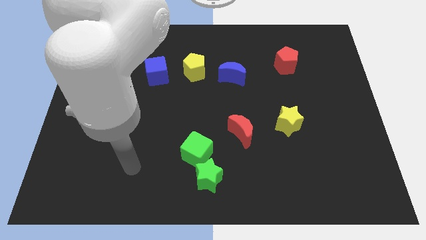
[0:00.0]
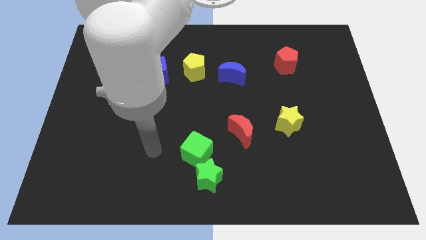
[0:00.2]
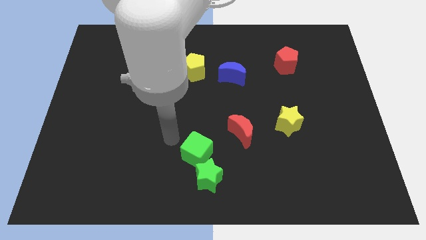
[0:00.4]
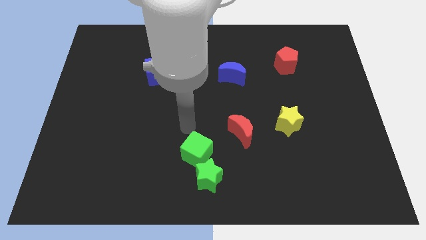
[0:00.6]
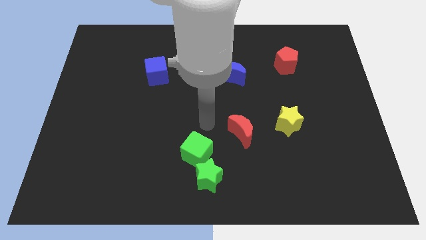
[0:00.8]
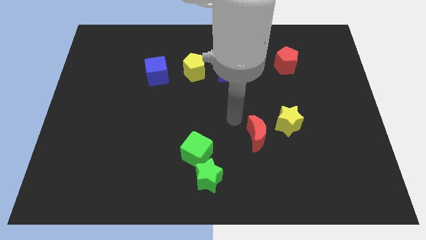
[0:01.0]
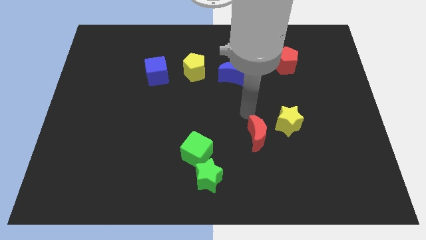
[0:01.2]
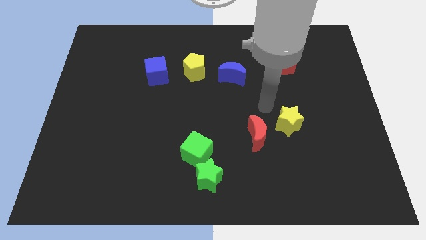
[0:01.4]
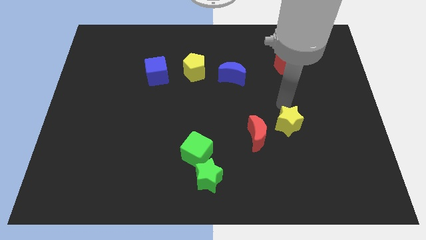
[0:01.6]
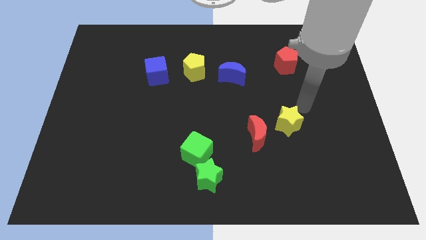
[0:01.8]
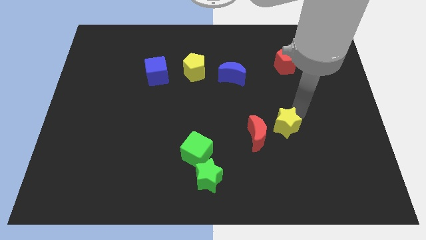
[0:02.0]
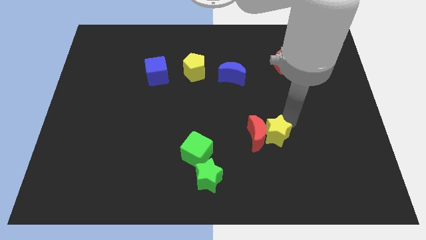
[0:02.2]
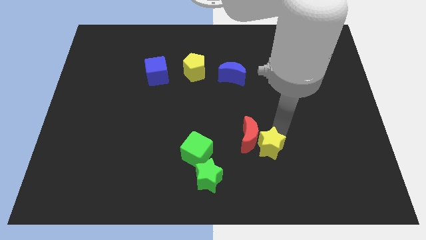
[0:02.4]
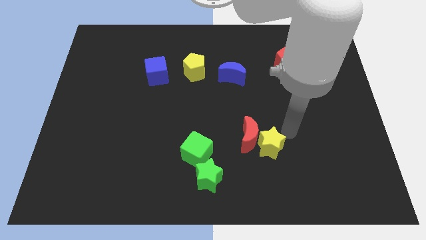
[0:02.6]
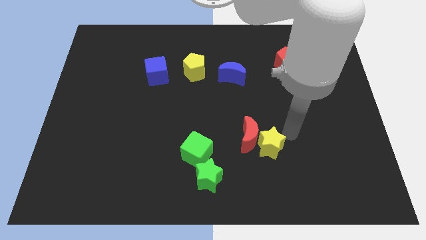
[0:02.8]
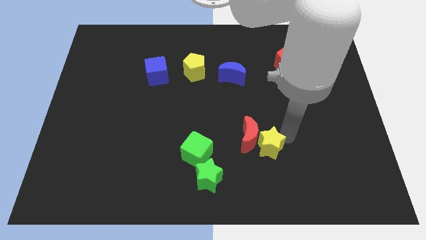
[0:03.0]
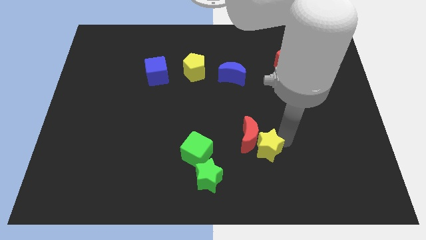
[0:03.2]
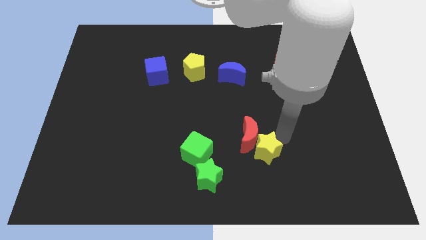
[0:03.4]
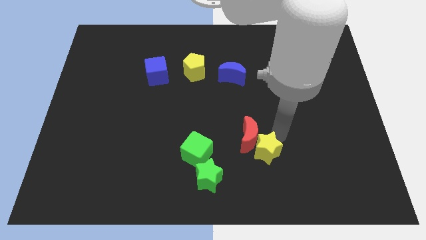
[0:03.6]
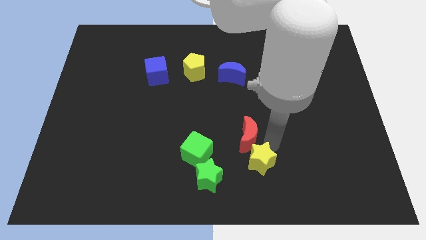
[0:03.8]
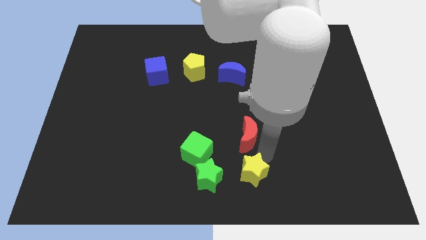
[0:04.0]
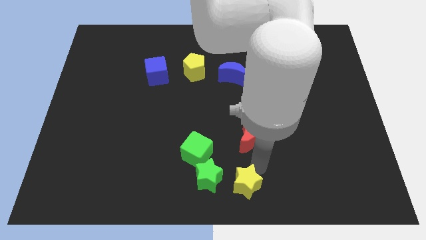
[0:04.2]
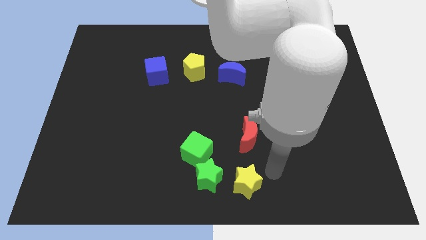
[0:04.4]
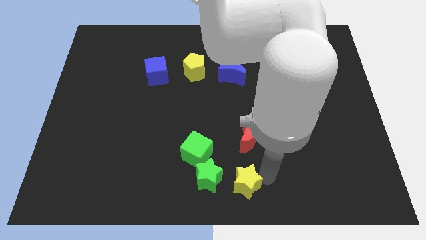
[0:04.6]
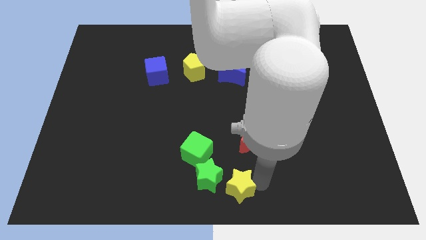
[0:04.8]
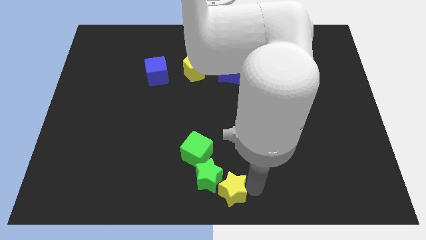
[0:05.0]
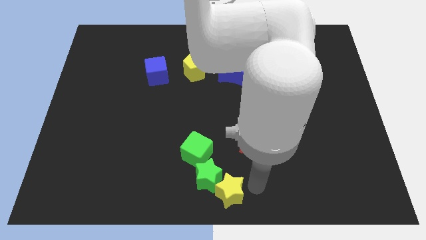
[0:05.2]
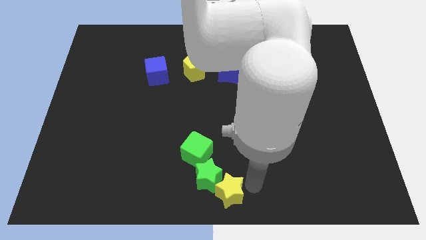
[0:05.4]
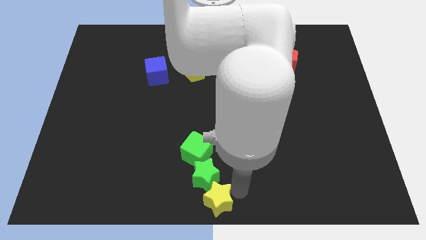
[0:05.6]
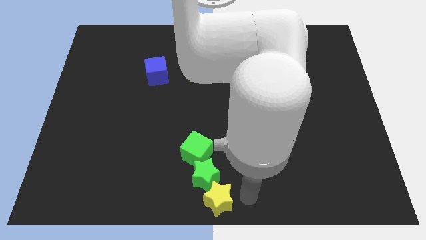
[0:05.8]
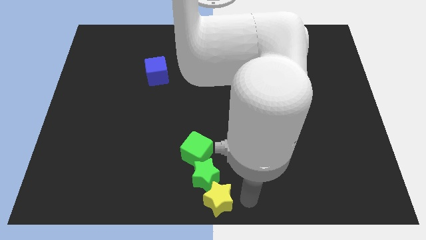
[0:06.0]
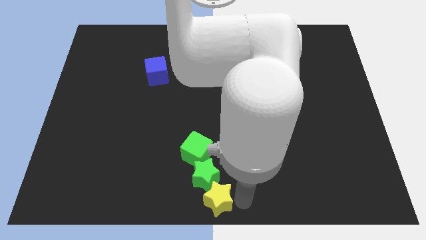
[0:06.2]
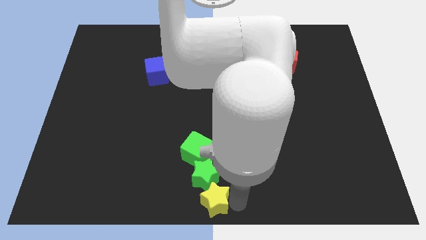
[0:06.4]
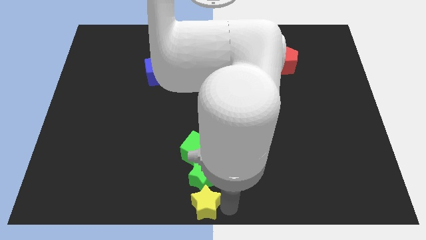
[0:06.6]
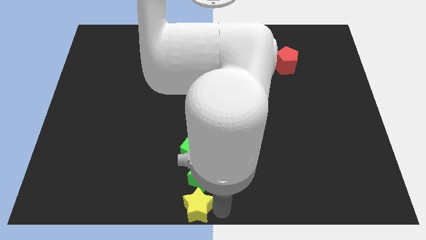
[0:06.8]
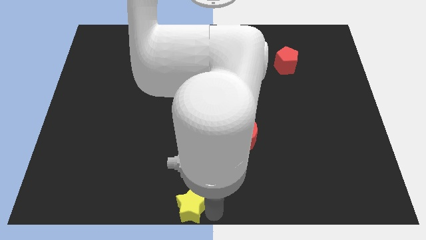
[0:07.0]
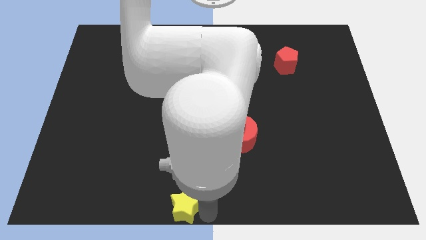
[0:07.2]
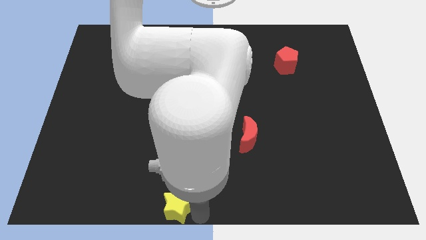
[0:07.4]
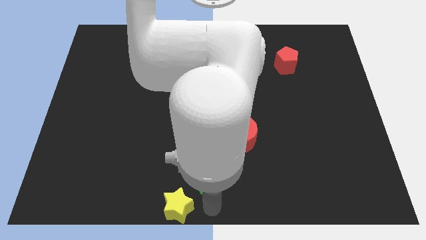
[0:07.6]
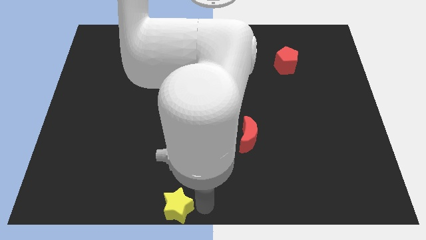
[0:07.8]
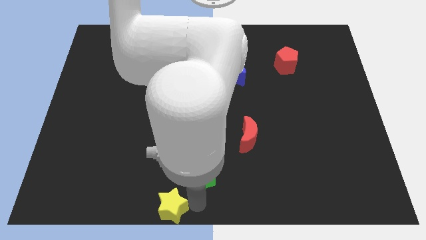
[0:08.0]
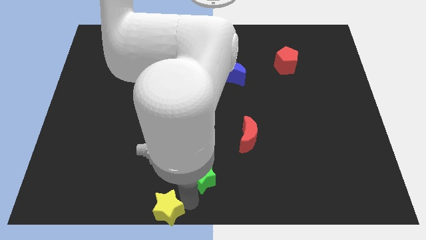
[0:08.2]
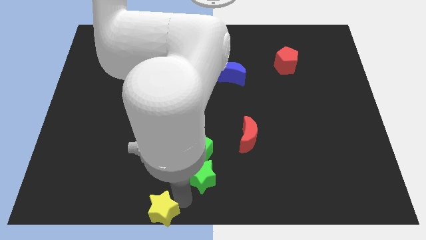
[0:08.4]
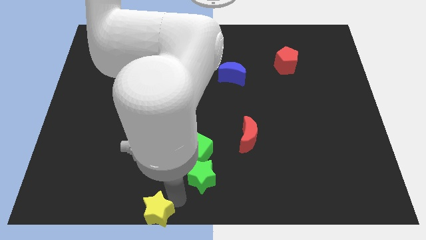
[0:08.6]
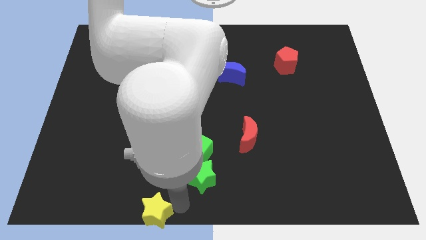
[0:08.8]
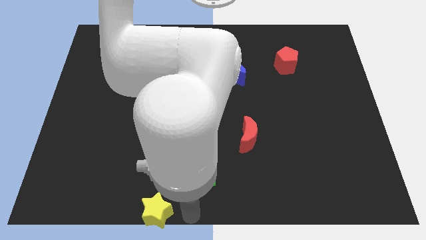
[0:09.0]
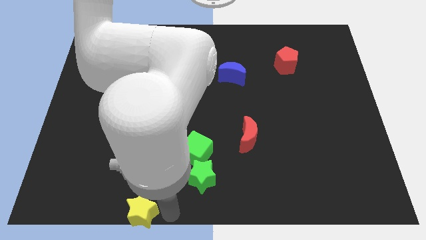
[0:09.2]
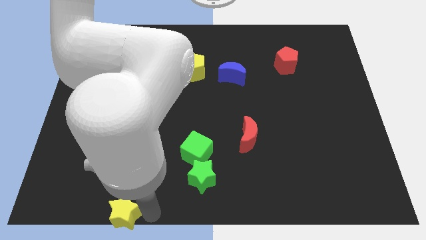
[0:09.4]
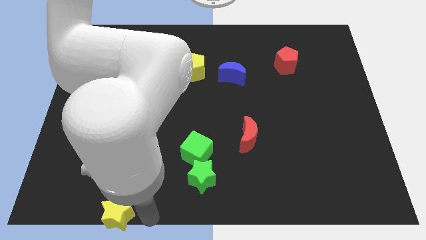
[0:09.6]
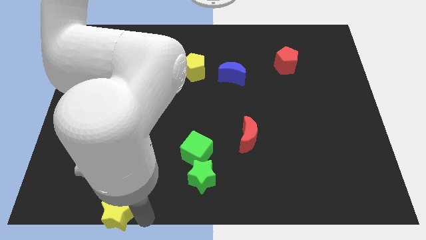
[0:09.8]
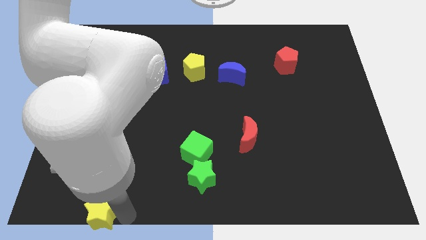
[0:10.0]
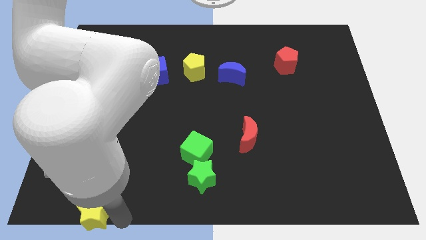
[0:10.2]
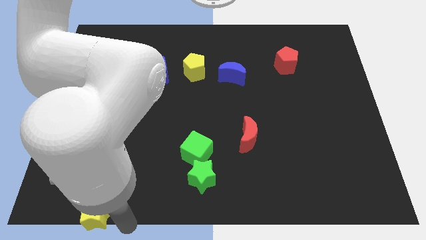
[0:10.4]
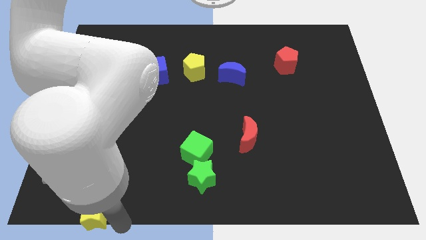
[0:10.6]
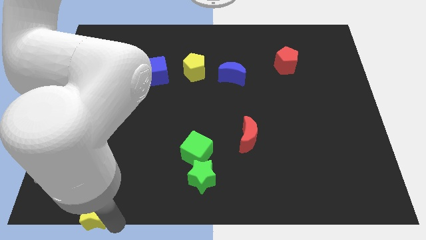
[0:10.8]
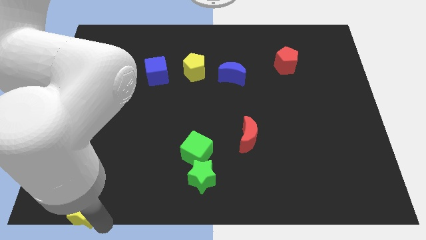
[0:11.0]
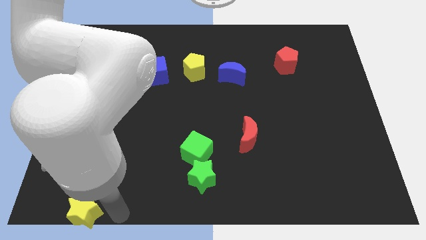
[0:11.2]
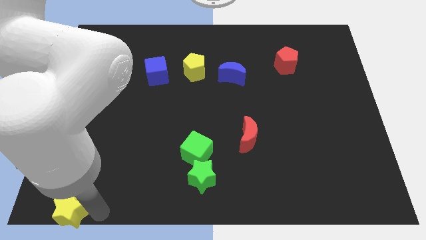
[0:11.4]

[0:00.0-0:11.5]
push the yellow star to the bottom left corner
